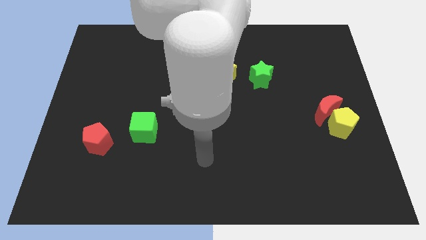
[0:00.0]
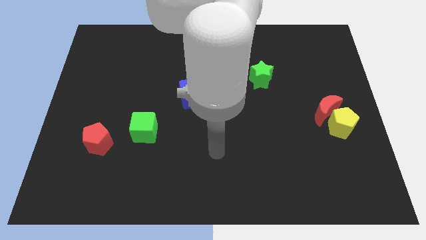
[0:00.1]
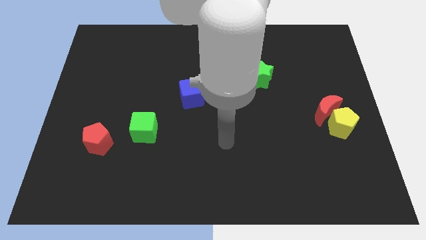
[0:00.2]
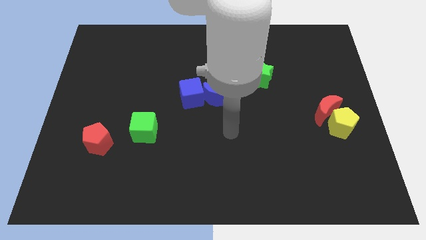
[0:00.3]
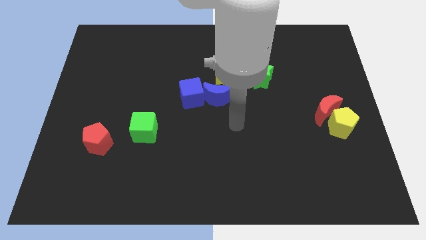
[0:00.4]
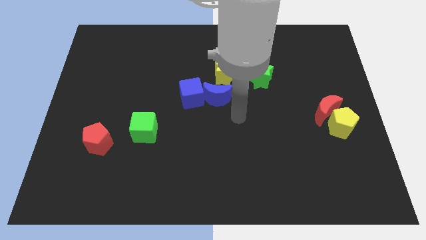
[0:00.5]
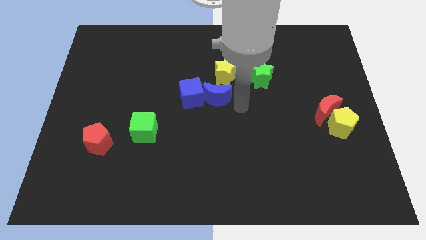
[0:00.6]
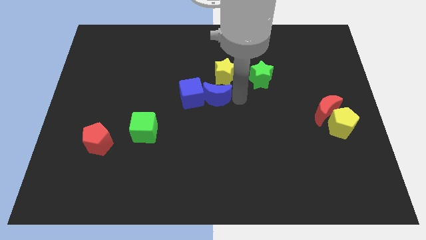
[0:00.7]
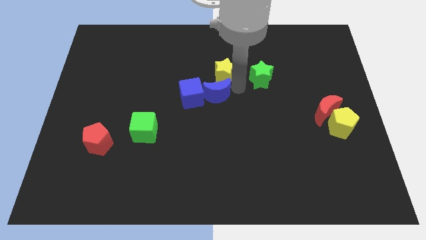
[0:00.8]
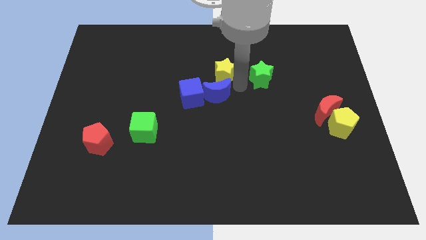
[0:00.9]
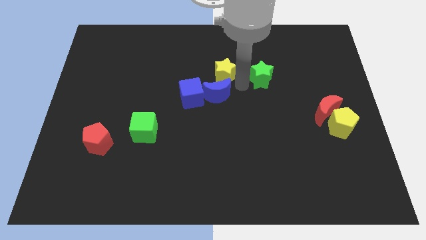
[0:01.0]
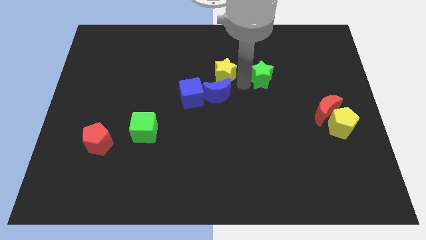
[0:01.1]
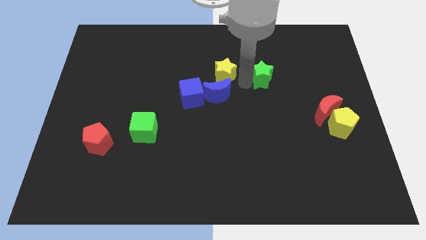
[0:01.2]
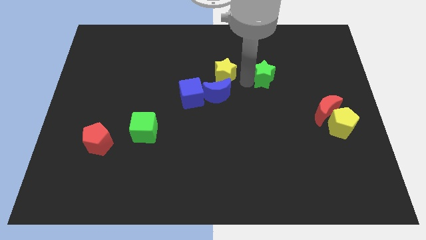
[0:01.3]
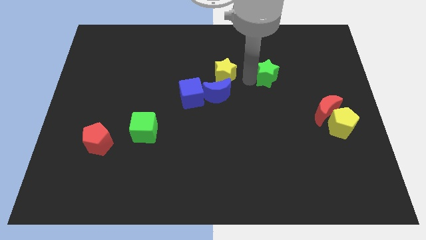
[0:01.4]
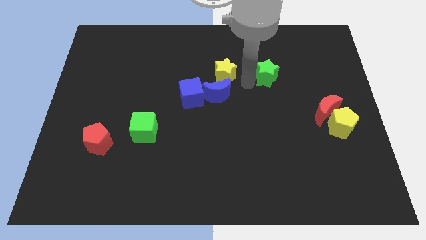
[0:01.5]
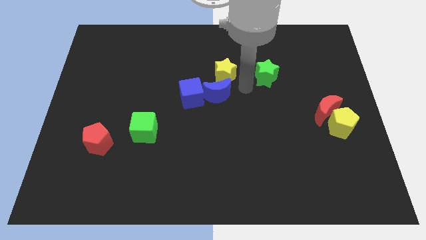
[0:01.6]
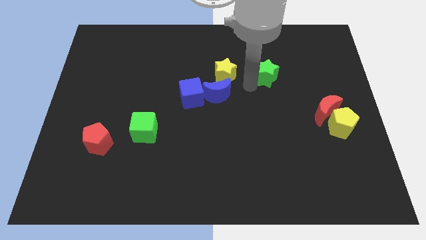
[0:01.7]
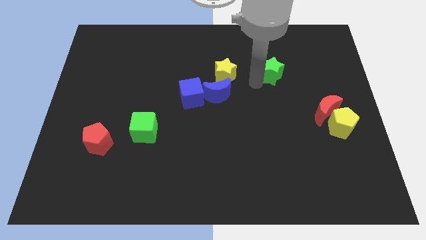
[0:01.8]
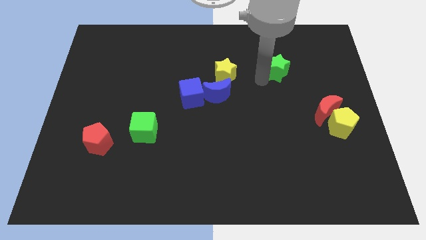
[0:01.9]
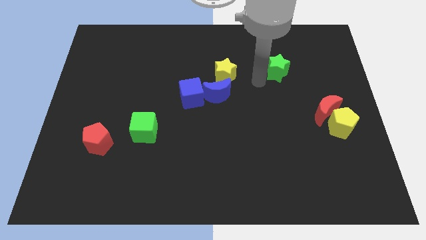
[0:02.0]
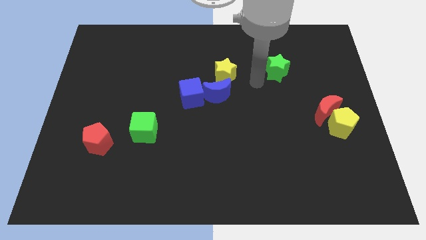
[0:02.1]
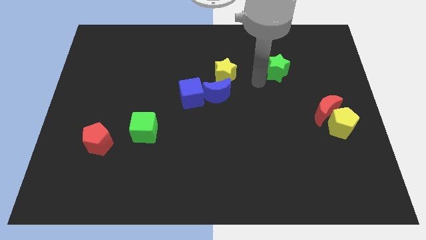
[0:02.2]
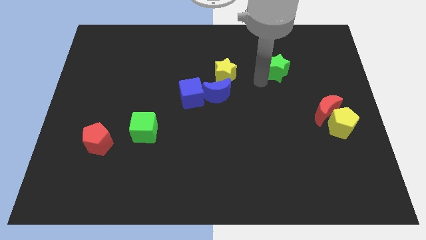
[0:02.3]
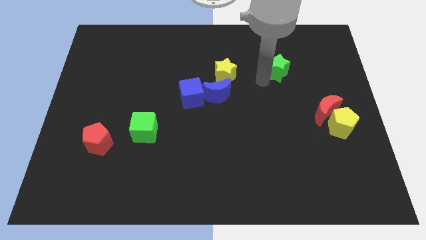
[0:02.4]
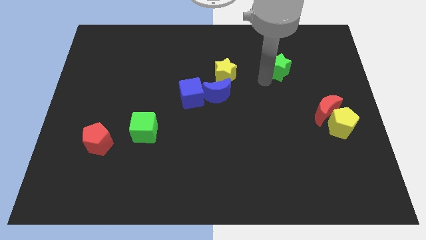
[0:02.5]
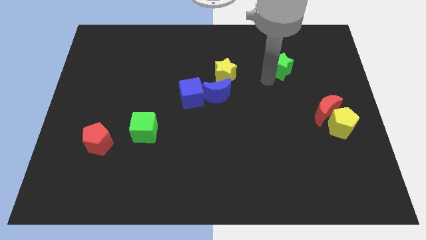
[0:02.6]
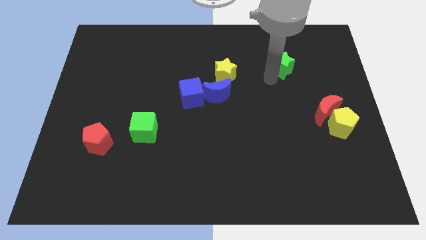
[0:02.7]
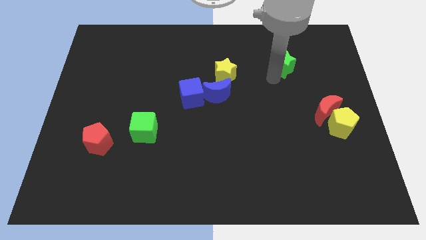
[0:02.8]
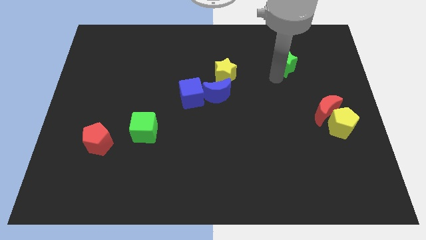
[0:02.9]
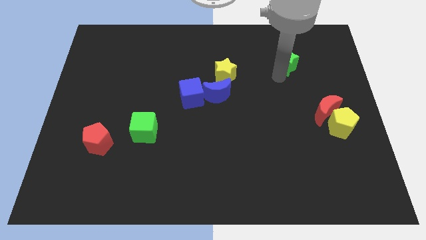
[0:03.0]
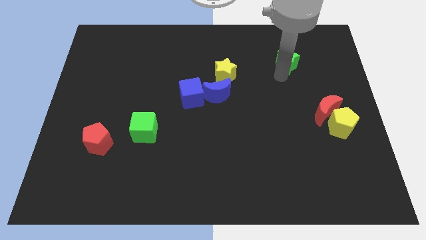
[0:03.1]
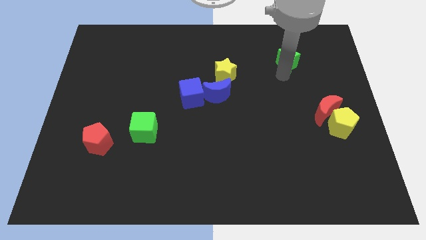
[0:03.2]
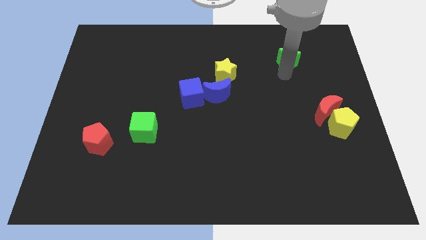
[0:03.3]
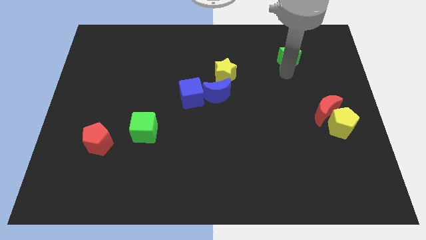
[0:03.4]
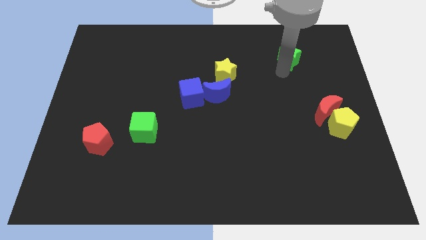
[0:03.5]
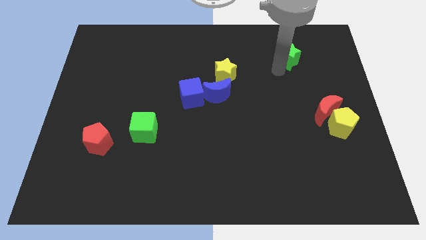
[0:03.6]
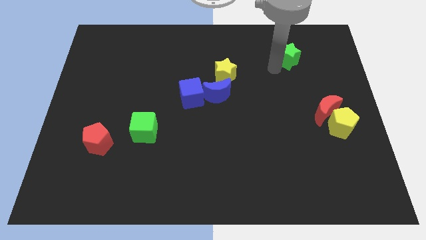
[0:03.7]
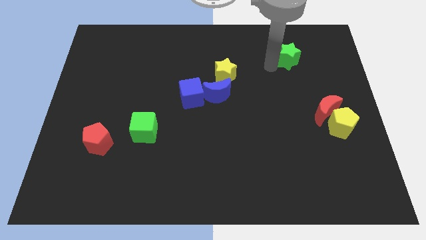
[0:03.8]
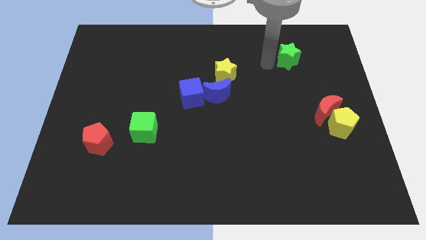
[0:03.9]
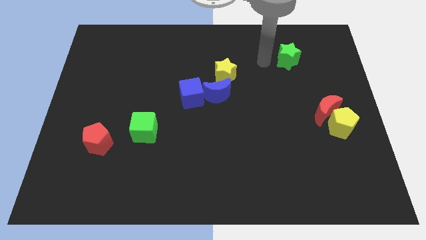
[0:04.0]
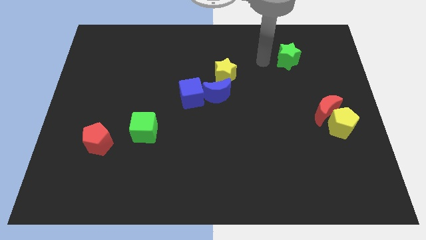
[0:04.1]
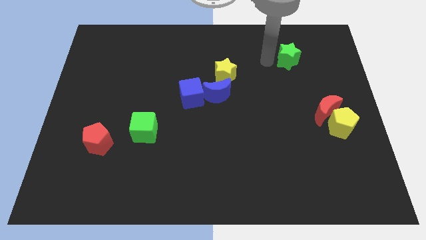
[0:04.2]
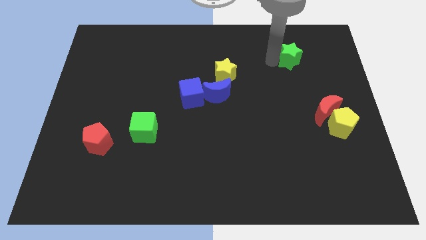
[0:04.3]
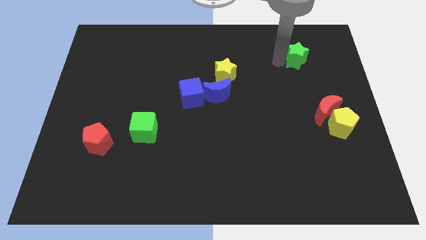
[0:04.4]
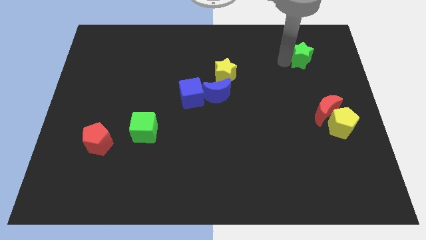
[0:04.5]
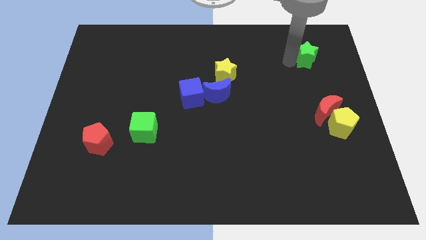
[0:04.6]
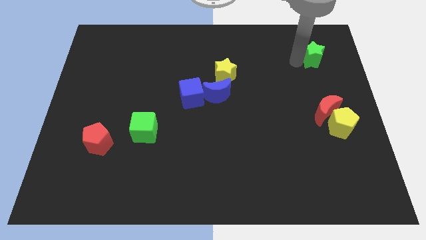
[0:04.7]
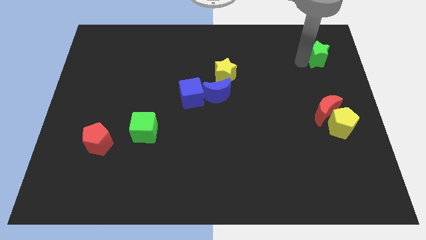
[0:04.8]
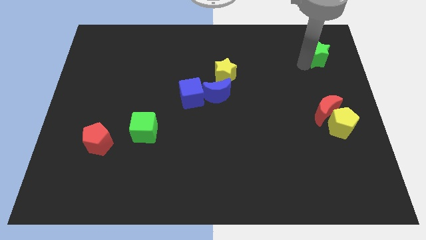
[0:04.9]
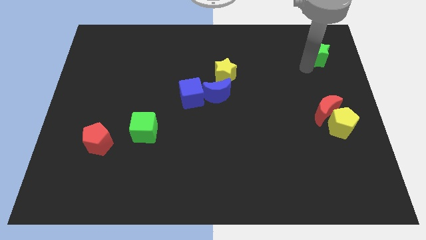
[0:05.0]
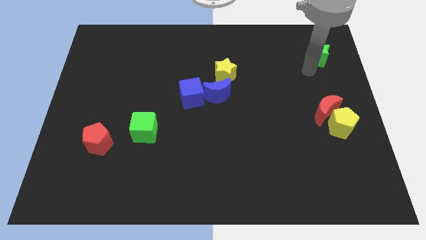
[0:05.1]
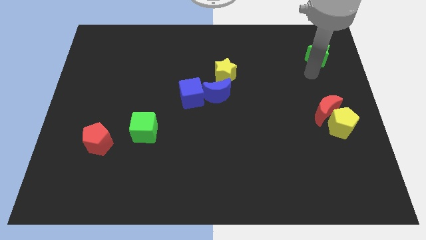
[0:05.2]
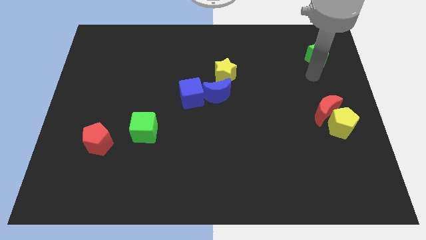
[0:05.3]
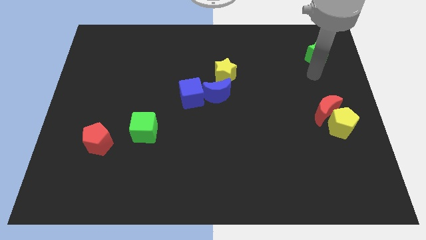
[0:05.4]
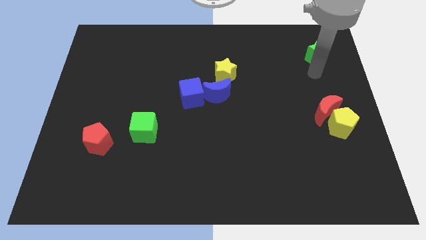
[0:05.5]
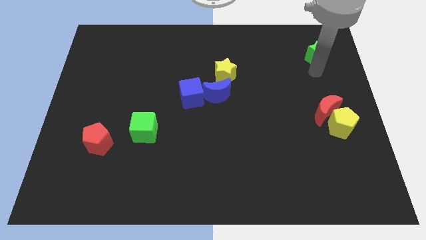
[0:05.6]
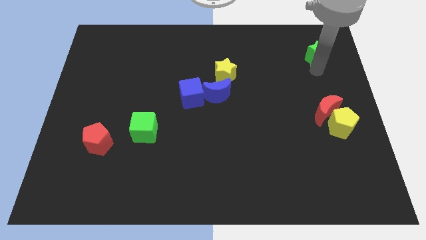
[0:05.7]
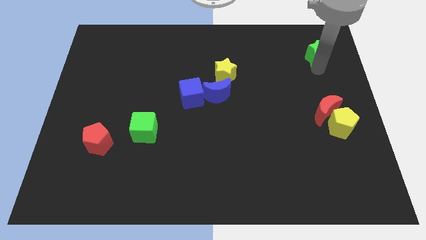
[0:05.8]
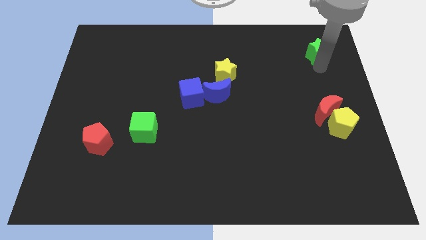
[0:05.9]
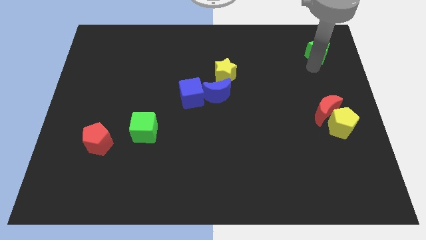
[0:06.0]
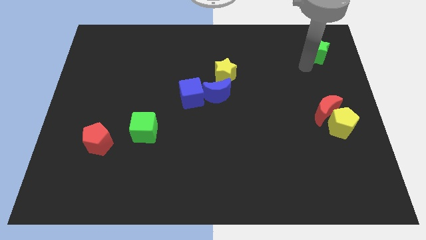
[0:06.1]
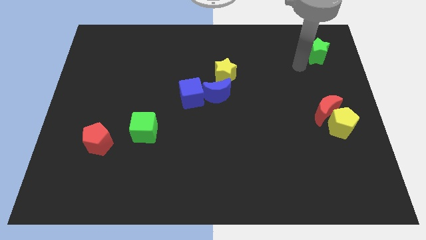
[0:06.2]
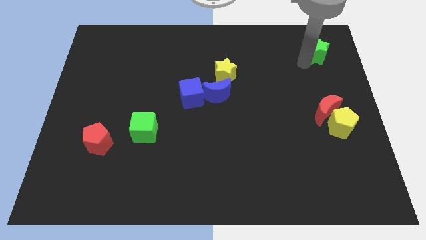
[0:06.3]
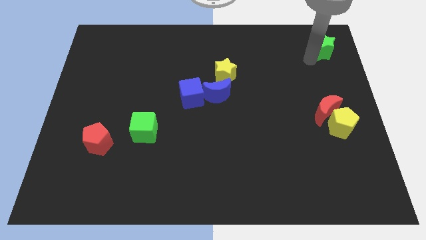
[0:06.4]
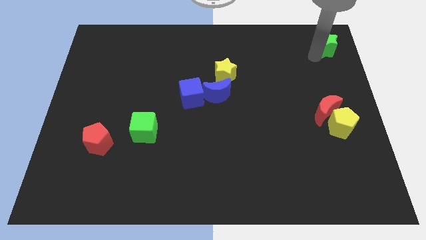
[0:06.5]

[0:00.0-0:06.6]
move the green star to the upper right corner
